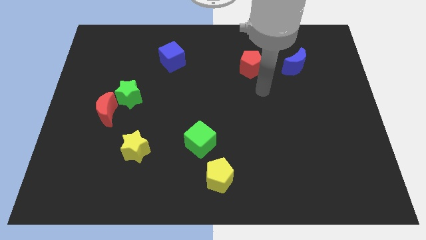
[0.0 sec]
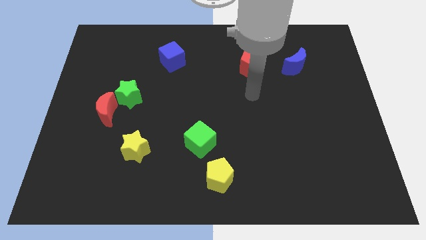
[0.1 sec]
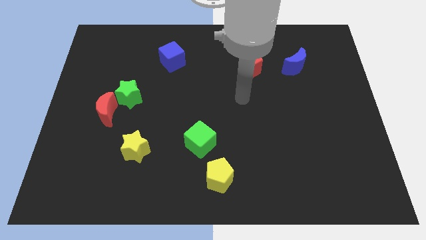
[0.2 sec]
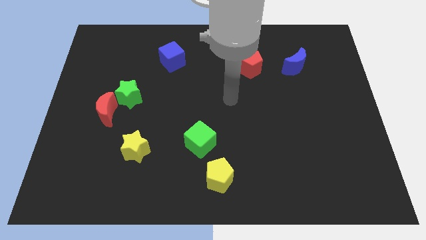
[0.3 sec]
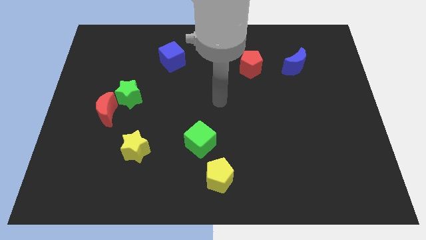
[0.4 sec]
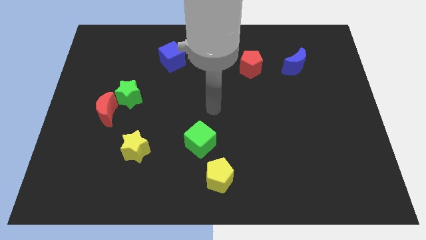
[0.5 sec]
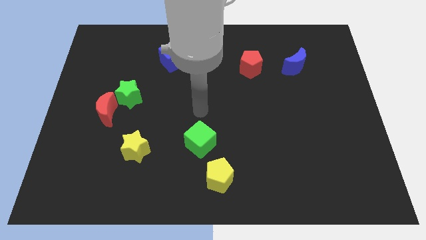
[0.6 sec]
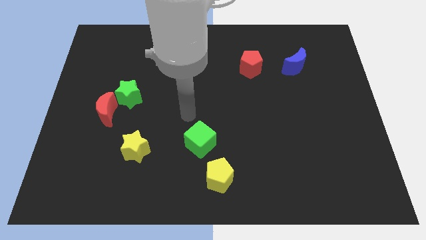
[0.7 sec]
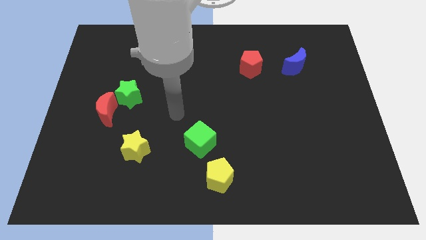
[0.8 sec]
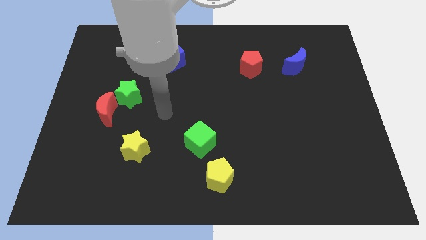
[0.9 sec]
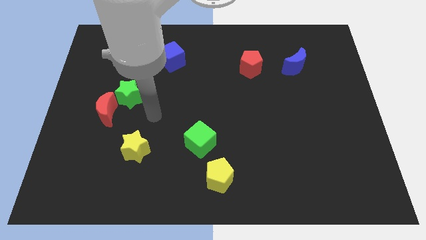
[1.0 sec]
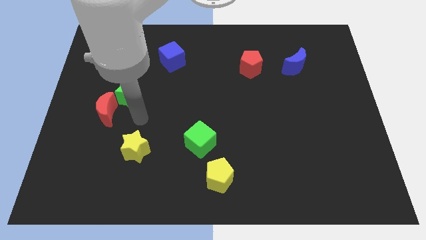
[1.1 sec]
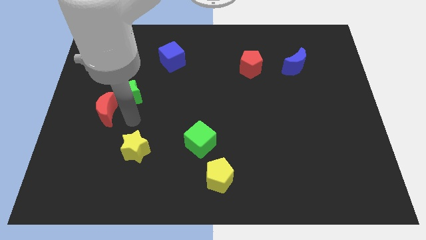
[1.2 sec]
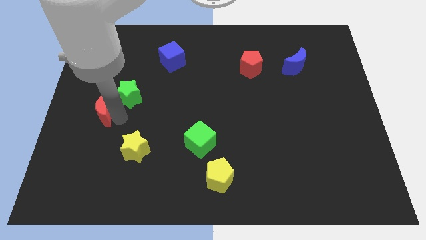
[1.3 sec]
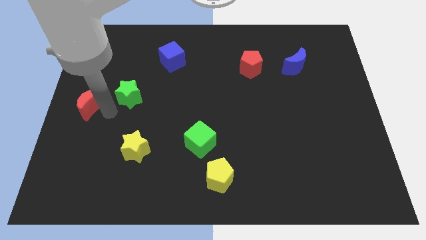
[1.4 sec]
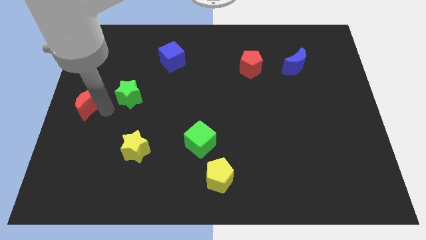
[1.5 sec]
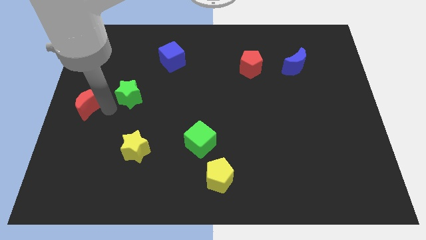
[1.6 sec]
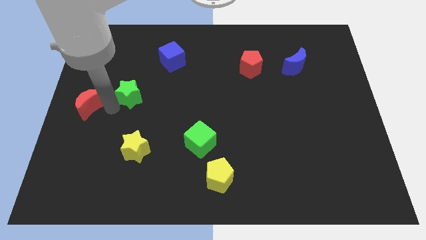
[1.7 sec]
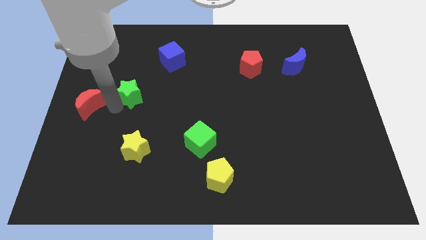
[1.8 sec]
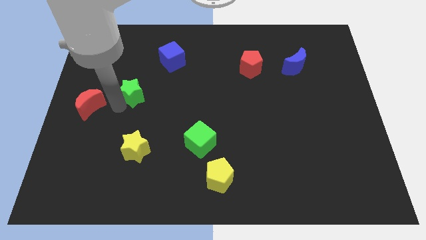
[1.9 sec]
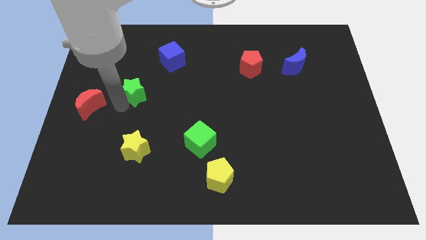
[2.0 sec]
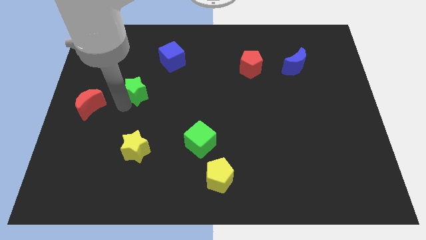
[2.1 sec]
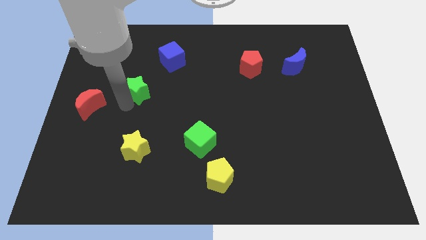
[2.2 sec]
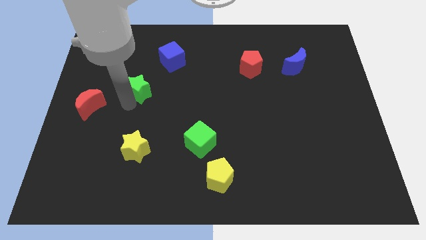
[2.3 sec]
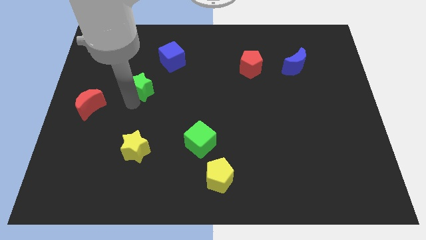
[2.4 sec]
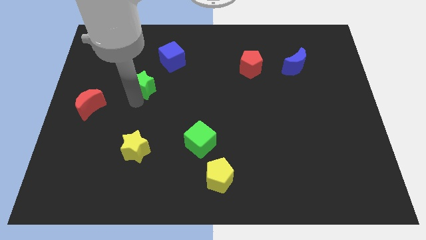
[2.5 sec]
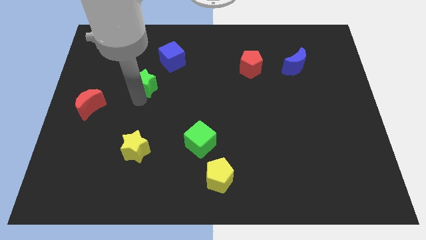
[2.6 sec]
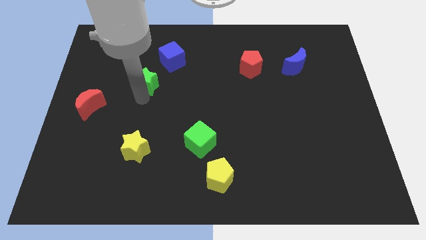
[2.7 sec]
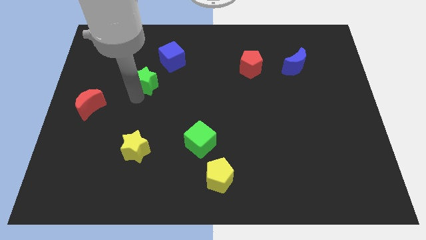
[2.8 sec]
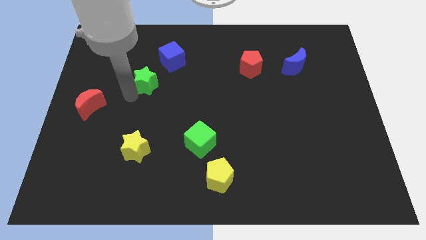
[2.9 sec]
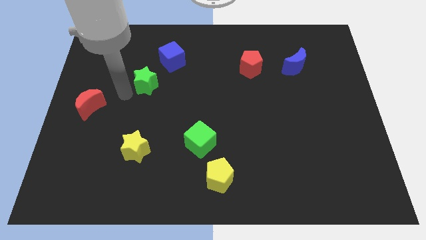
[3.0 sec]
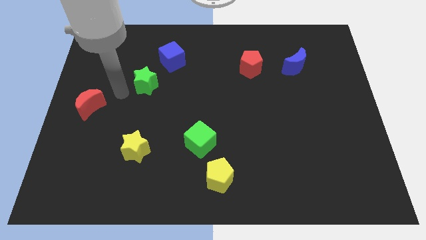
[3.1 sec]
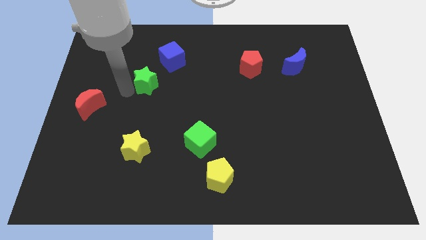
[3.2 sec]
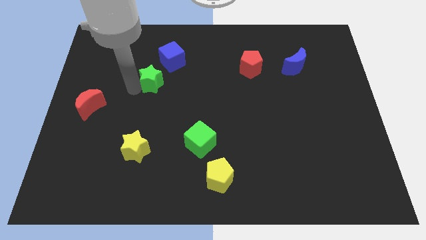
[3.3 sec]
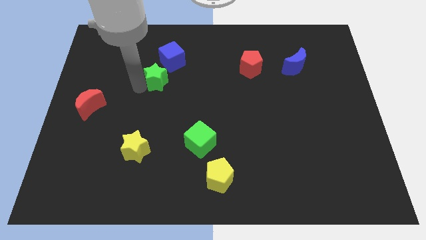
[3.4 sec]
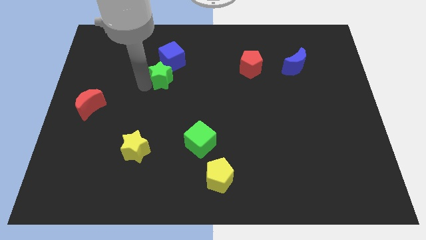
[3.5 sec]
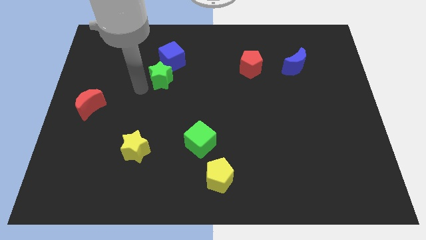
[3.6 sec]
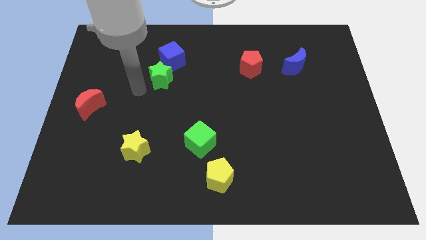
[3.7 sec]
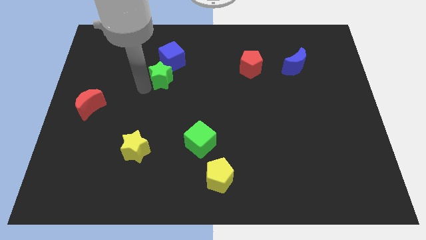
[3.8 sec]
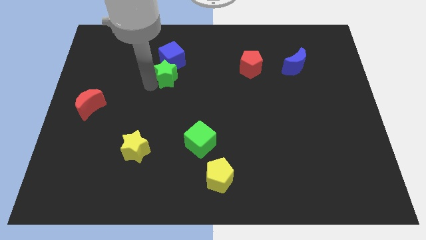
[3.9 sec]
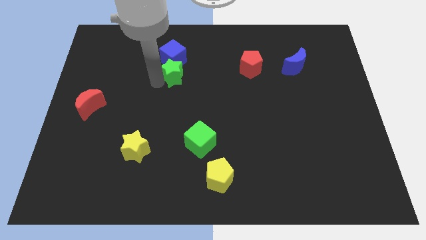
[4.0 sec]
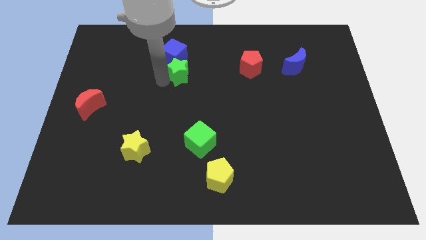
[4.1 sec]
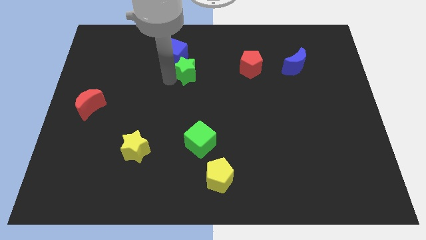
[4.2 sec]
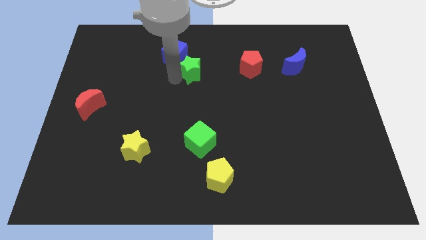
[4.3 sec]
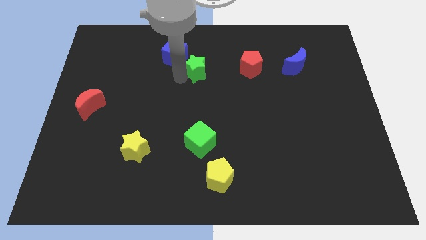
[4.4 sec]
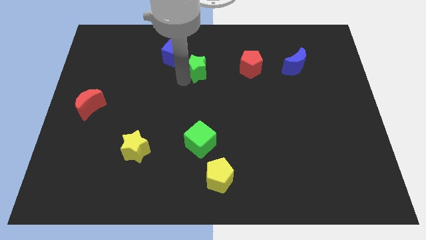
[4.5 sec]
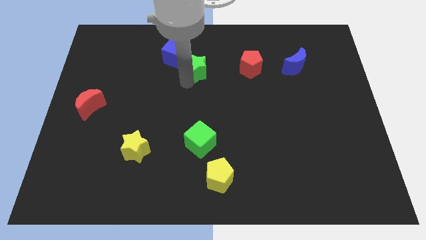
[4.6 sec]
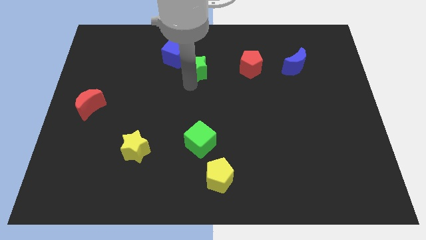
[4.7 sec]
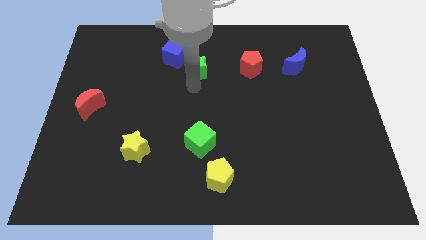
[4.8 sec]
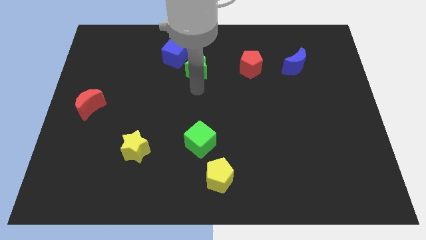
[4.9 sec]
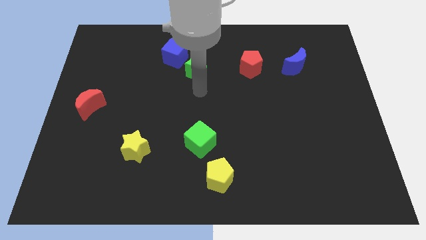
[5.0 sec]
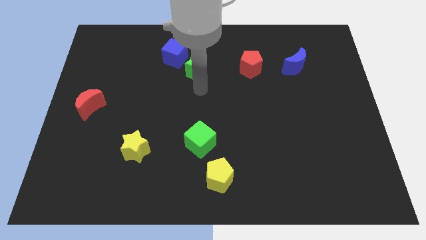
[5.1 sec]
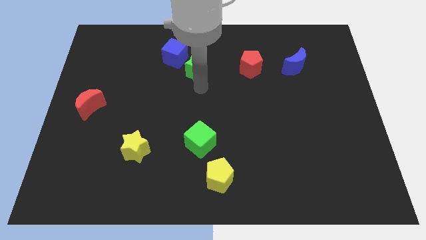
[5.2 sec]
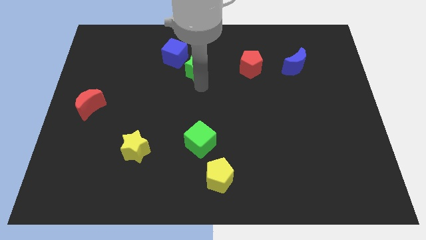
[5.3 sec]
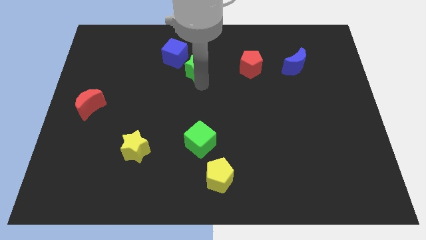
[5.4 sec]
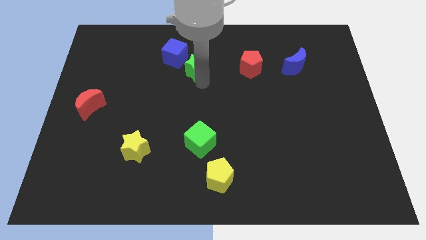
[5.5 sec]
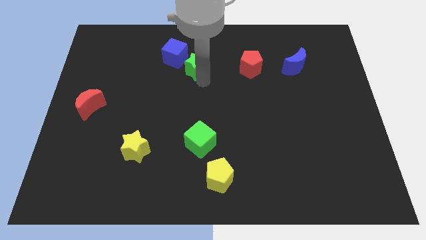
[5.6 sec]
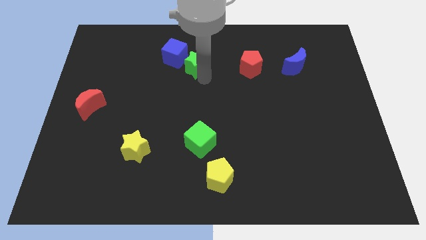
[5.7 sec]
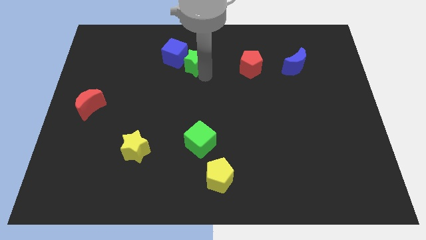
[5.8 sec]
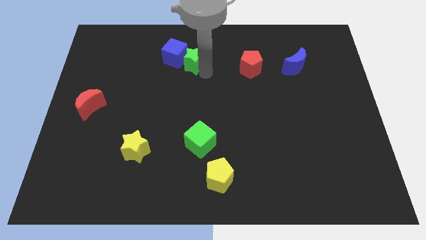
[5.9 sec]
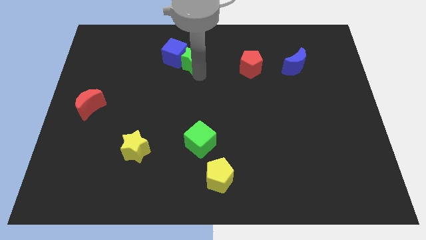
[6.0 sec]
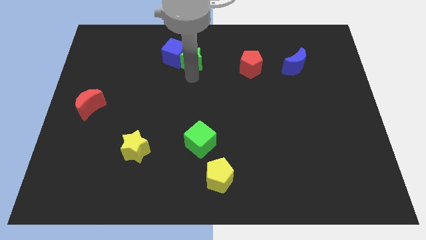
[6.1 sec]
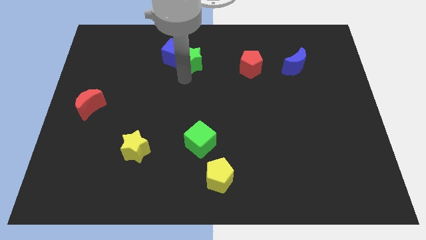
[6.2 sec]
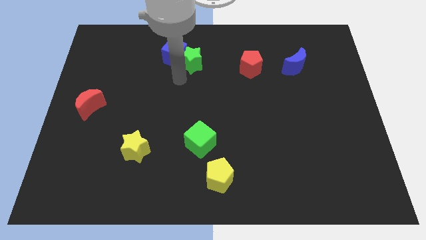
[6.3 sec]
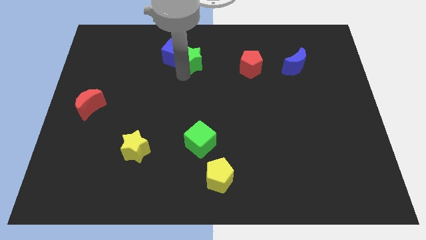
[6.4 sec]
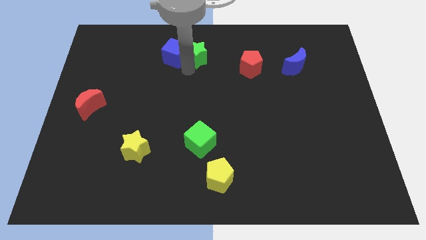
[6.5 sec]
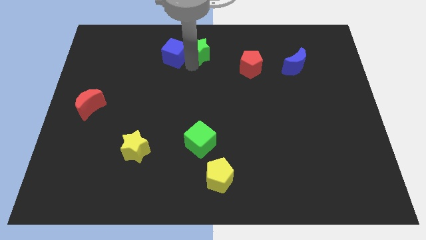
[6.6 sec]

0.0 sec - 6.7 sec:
move the green star to the top

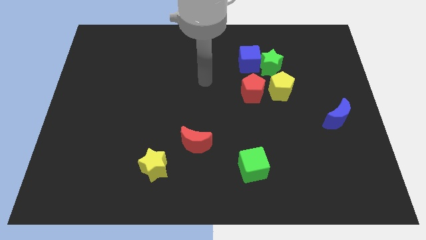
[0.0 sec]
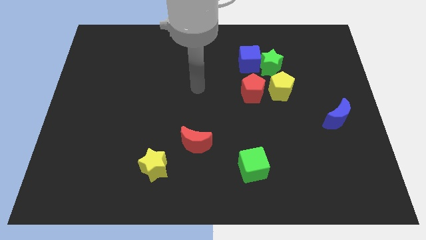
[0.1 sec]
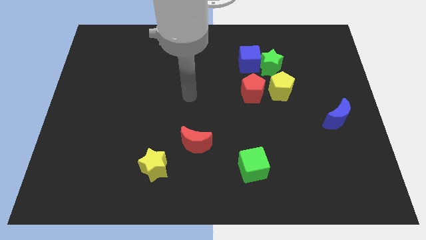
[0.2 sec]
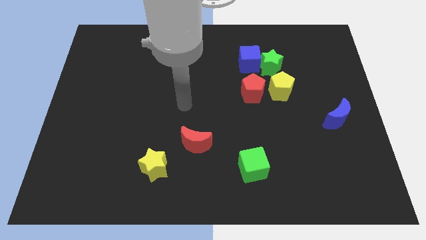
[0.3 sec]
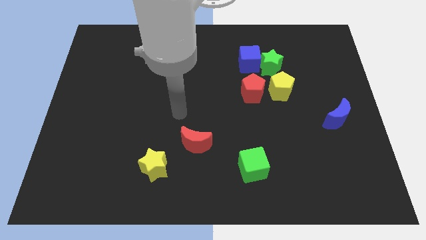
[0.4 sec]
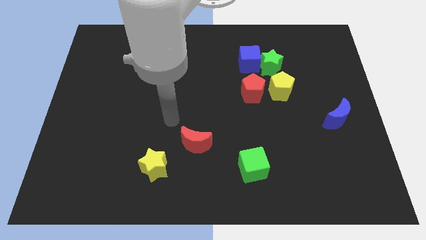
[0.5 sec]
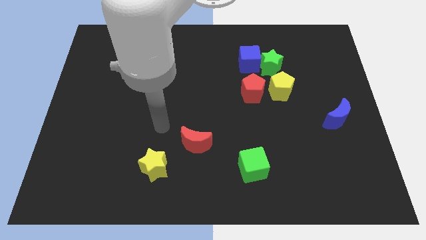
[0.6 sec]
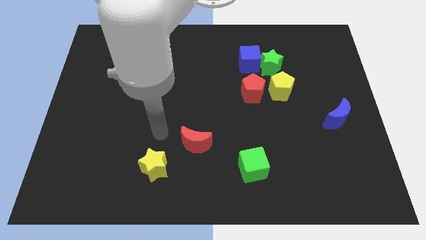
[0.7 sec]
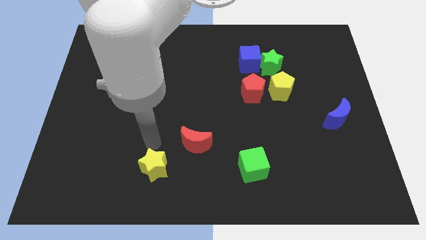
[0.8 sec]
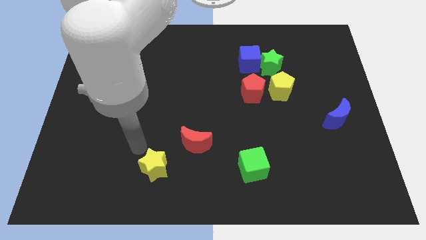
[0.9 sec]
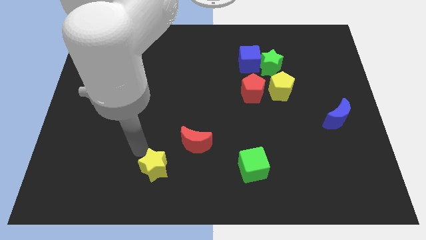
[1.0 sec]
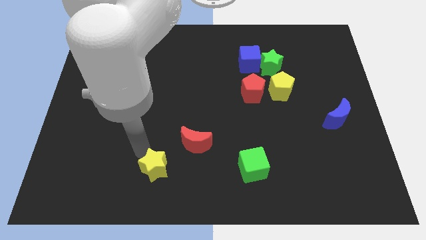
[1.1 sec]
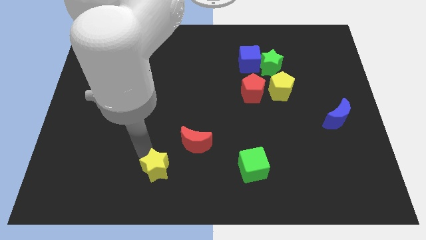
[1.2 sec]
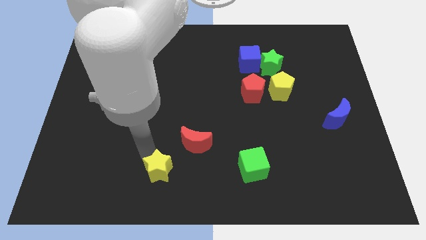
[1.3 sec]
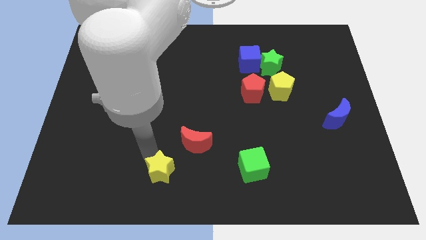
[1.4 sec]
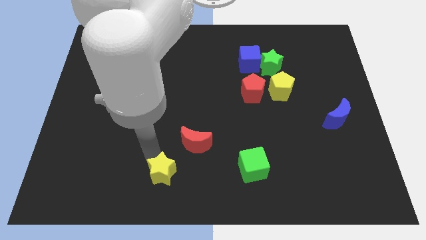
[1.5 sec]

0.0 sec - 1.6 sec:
slide the yellow star to the bottom side
